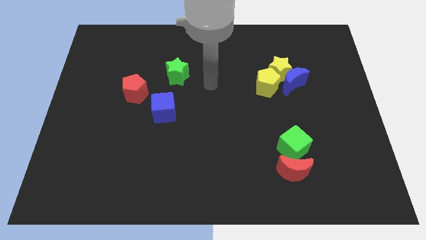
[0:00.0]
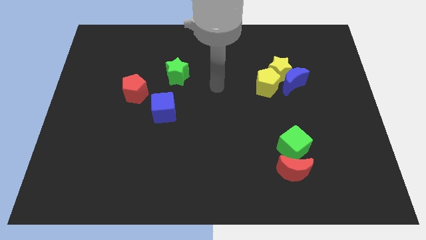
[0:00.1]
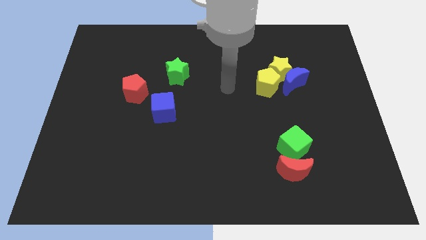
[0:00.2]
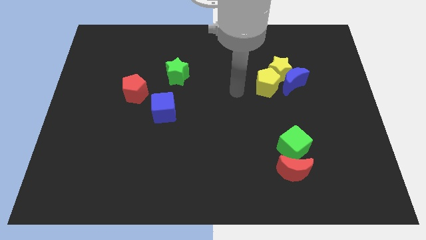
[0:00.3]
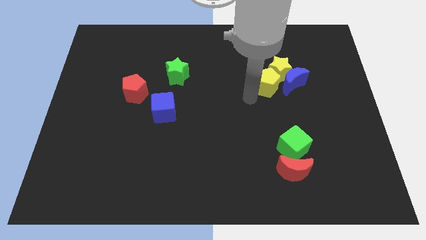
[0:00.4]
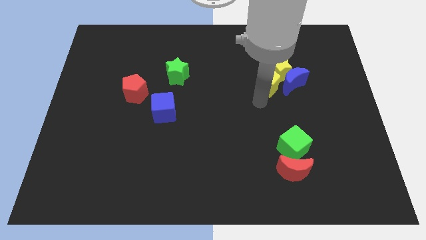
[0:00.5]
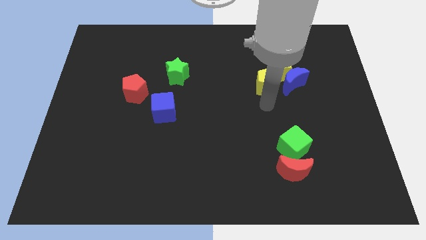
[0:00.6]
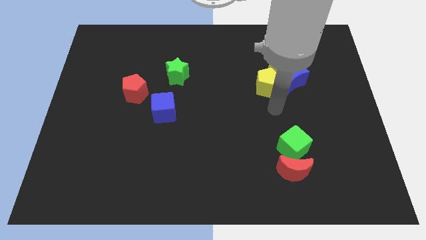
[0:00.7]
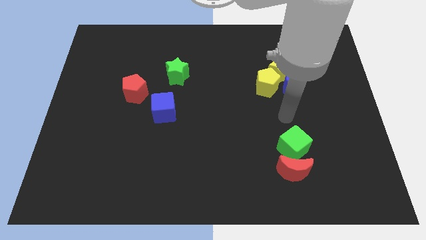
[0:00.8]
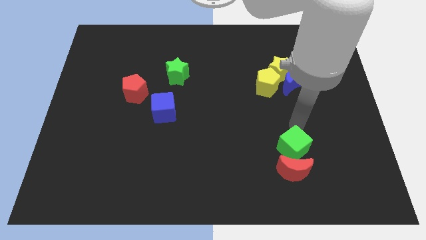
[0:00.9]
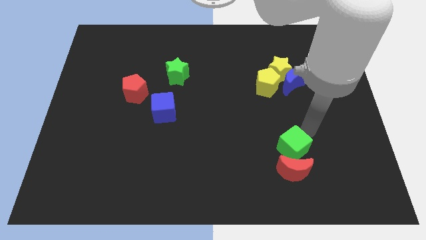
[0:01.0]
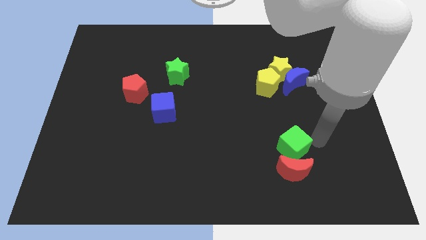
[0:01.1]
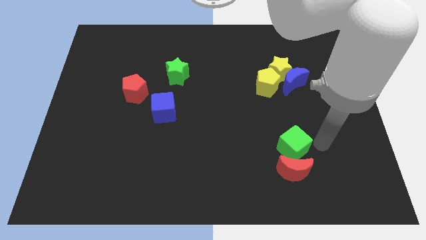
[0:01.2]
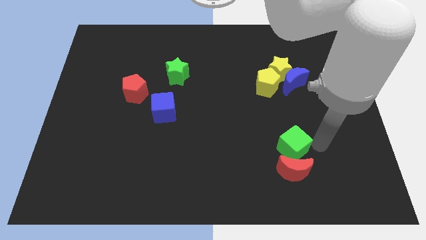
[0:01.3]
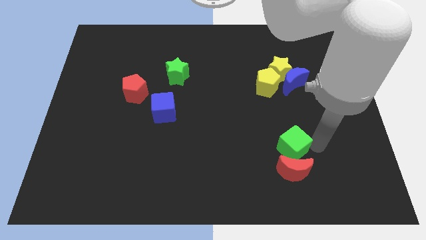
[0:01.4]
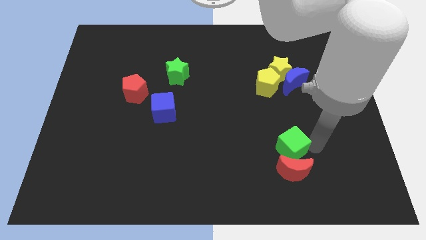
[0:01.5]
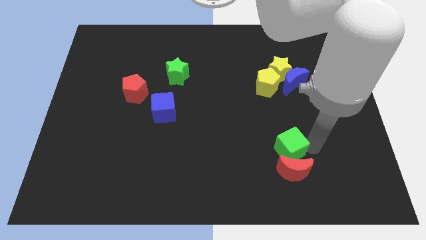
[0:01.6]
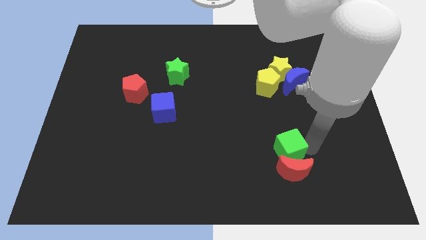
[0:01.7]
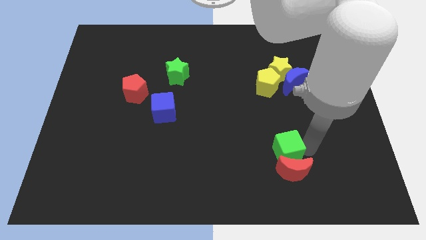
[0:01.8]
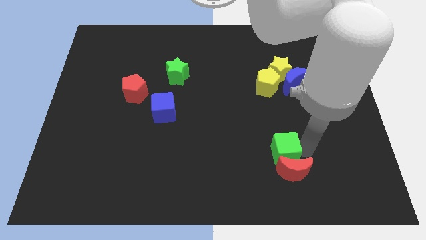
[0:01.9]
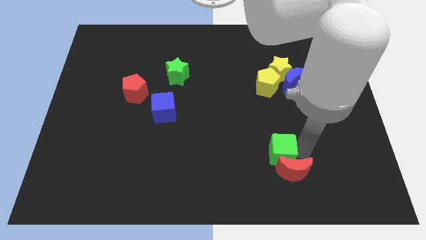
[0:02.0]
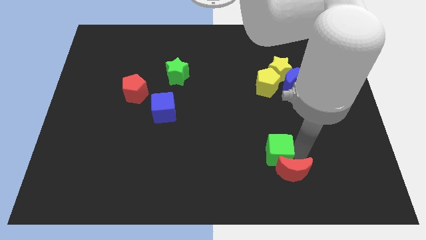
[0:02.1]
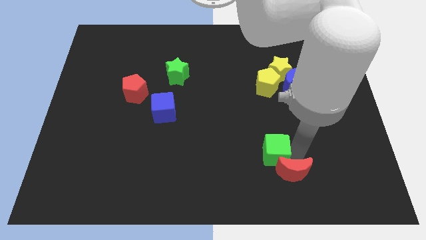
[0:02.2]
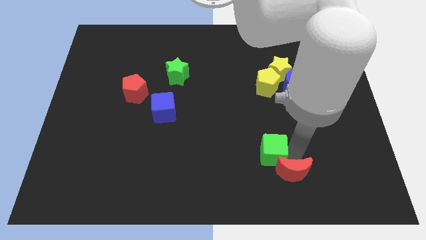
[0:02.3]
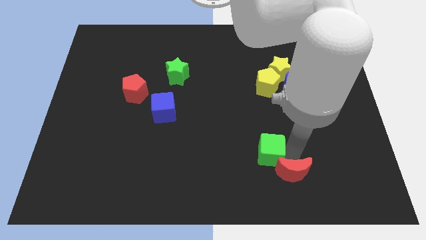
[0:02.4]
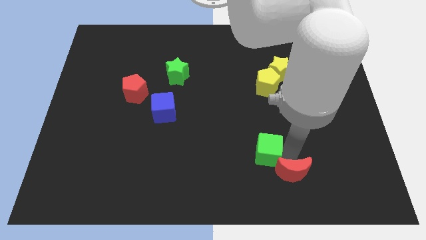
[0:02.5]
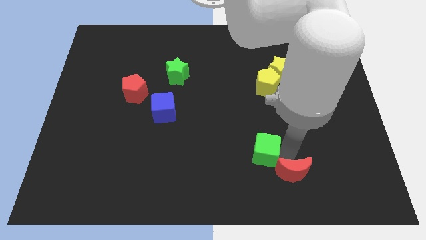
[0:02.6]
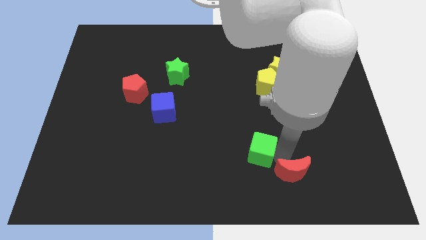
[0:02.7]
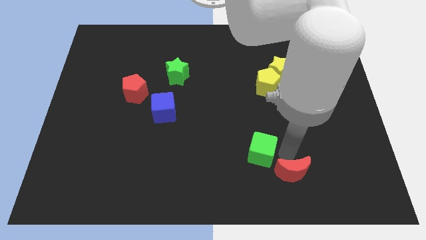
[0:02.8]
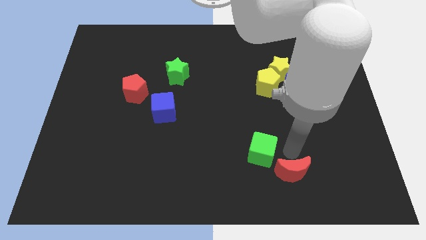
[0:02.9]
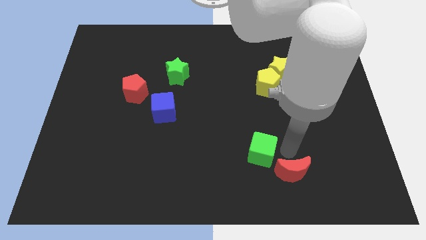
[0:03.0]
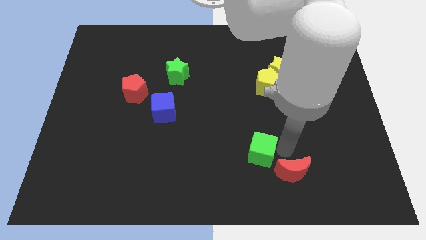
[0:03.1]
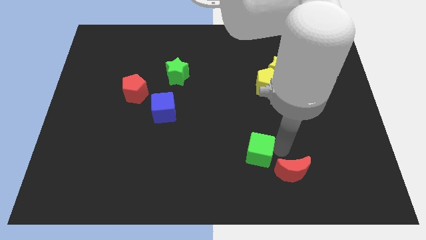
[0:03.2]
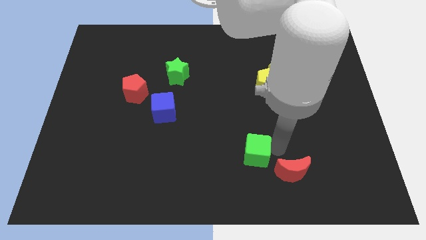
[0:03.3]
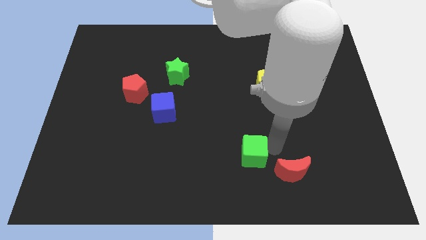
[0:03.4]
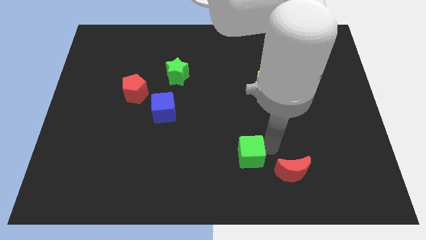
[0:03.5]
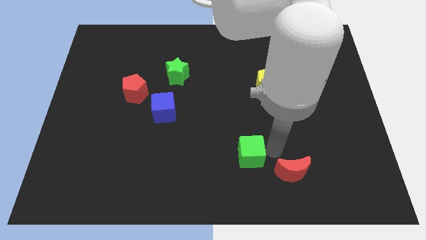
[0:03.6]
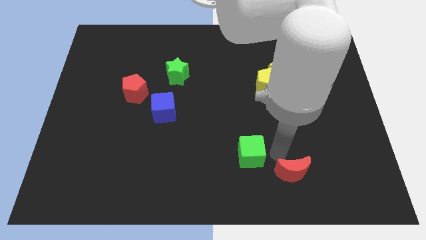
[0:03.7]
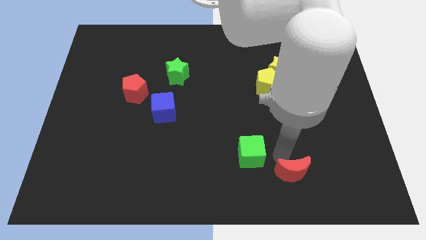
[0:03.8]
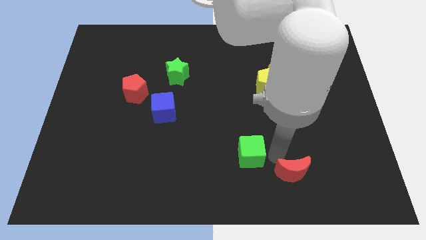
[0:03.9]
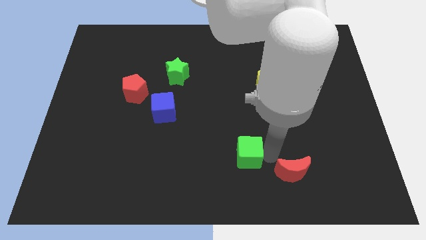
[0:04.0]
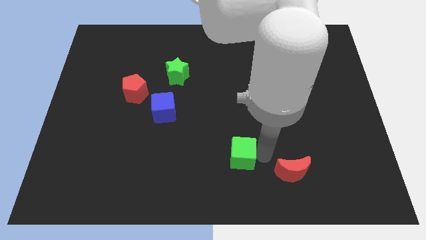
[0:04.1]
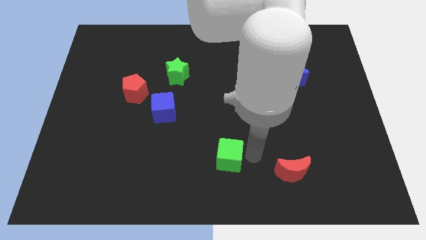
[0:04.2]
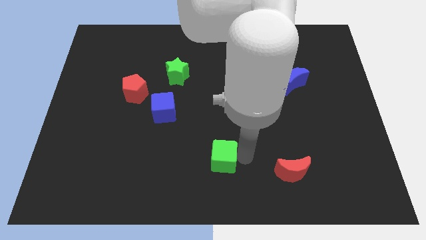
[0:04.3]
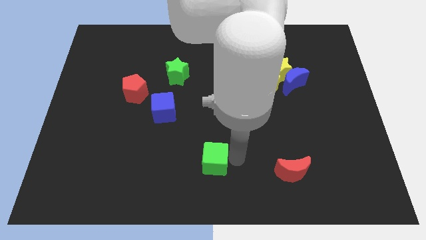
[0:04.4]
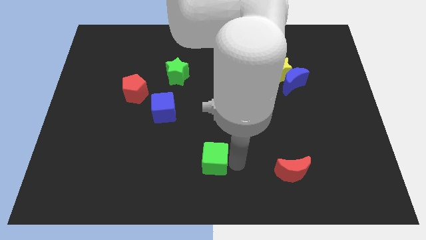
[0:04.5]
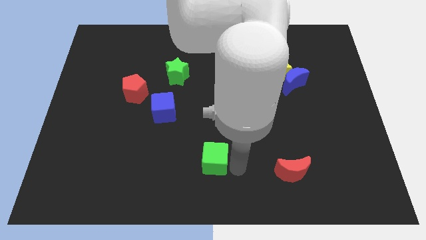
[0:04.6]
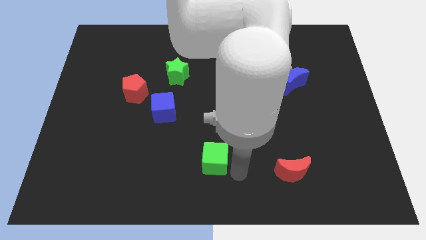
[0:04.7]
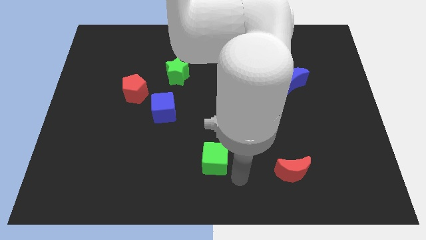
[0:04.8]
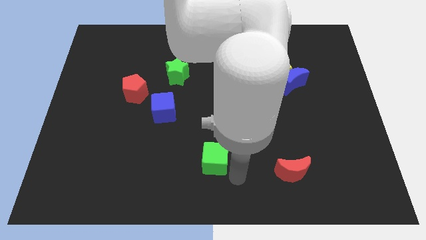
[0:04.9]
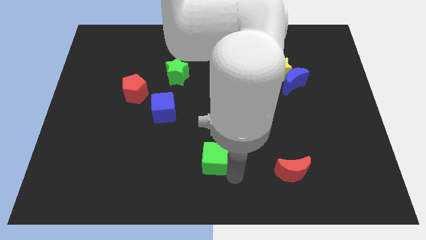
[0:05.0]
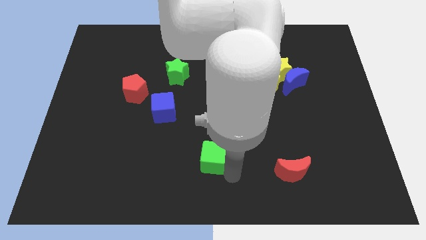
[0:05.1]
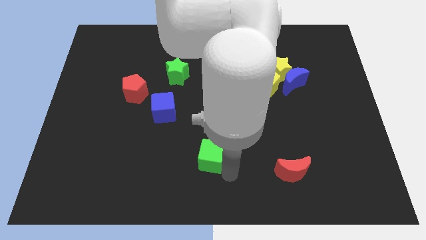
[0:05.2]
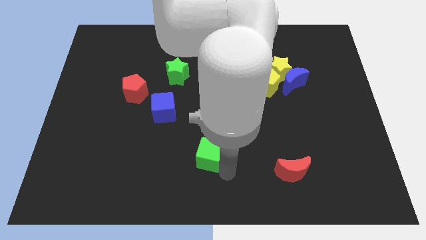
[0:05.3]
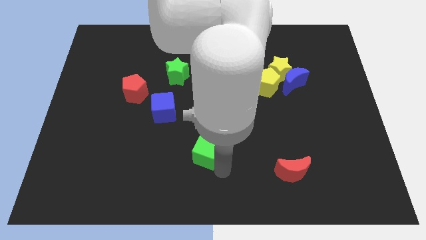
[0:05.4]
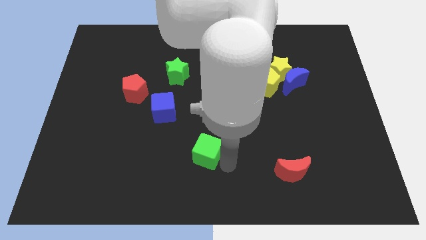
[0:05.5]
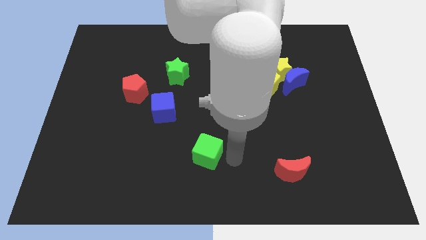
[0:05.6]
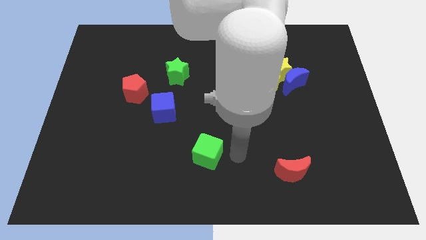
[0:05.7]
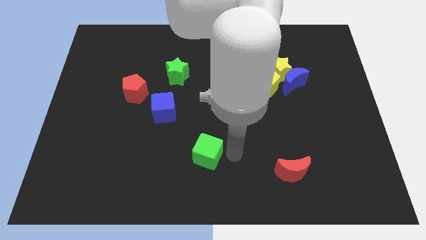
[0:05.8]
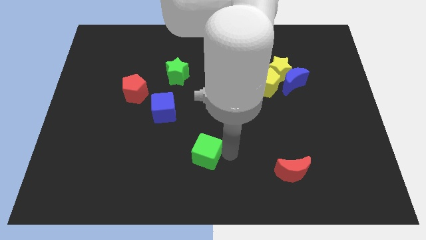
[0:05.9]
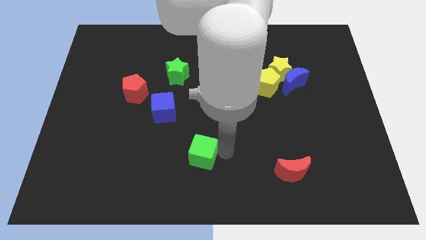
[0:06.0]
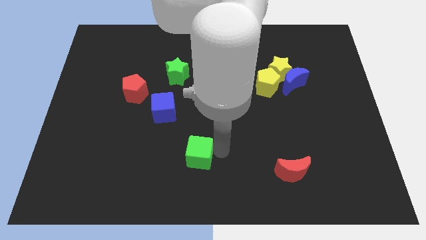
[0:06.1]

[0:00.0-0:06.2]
slide the green cube left

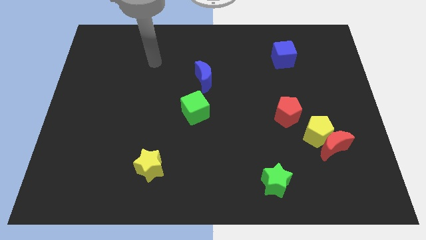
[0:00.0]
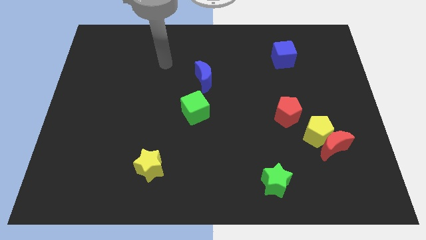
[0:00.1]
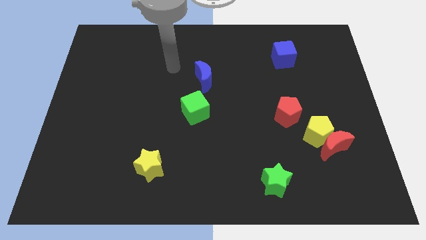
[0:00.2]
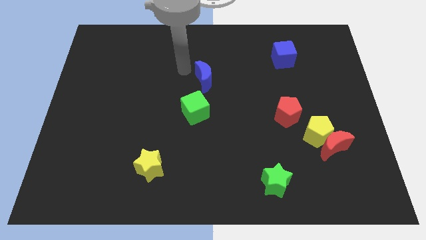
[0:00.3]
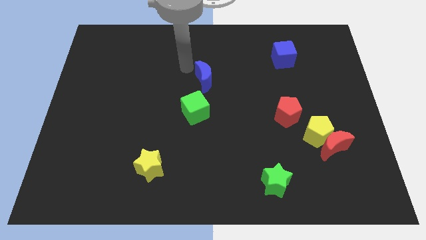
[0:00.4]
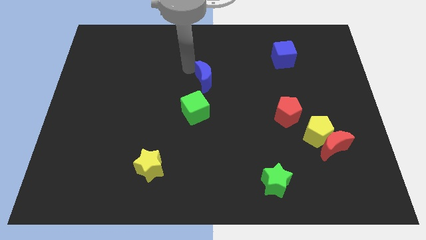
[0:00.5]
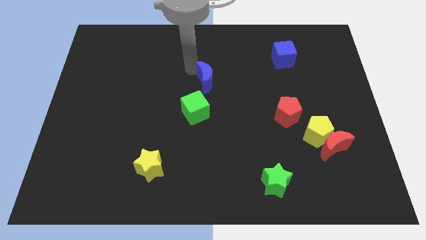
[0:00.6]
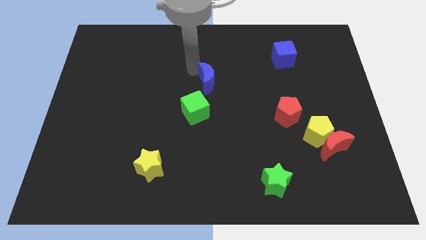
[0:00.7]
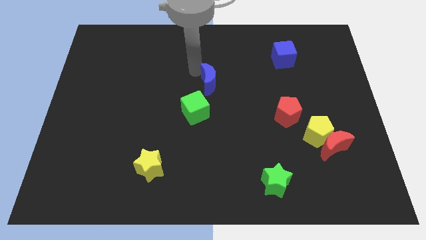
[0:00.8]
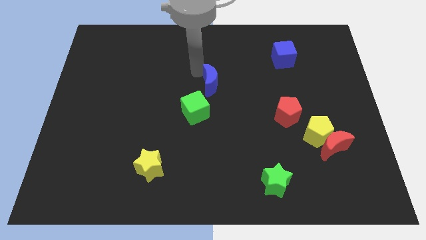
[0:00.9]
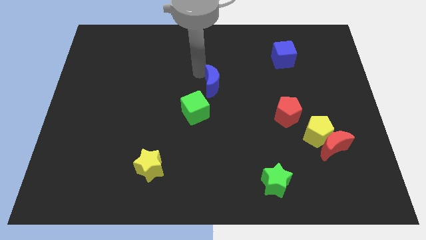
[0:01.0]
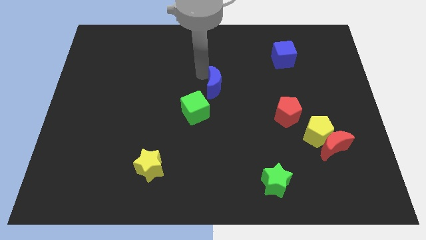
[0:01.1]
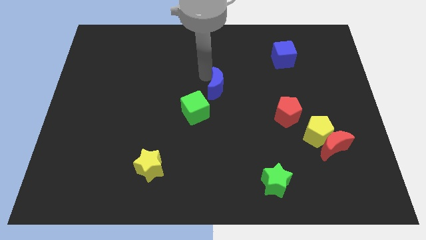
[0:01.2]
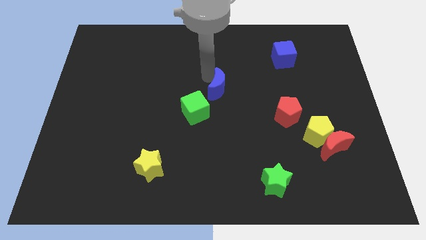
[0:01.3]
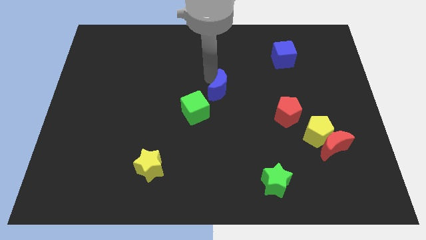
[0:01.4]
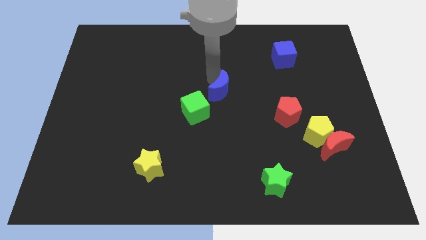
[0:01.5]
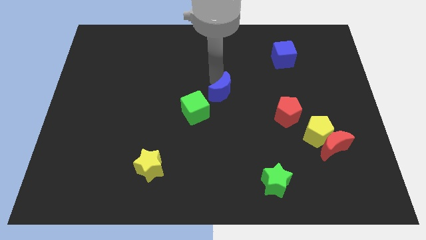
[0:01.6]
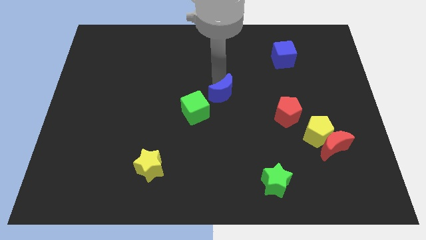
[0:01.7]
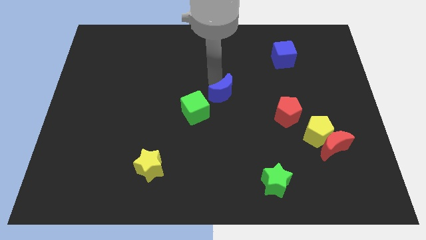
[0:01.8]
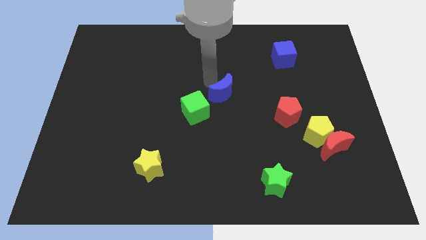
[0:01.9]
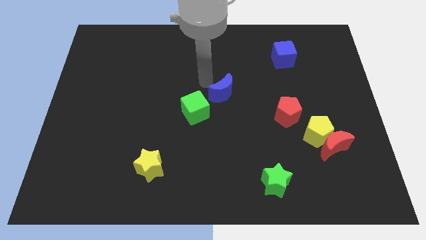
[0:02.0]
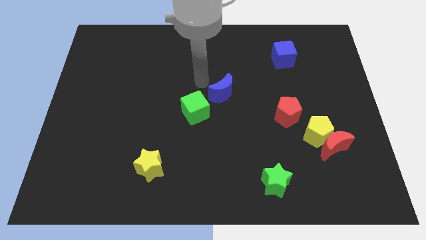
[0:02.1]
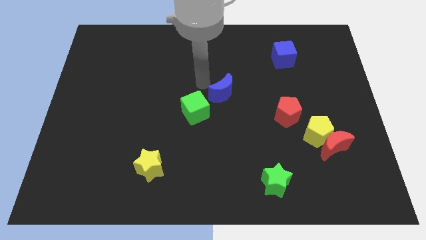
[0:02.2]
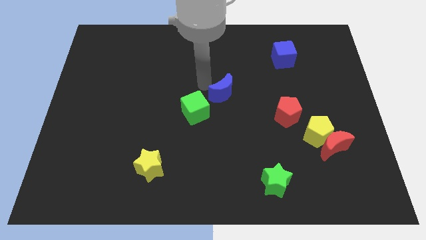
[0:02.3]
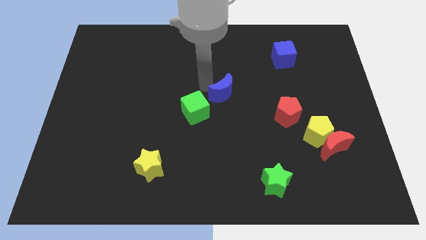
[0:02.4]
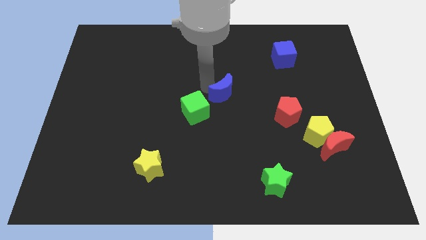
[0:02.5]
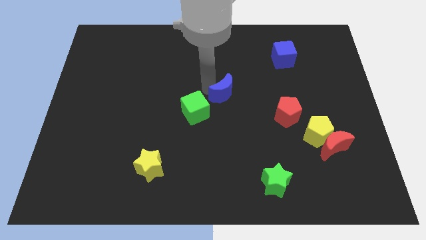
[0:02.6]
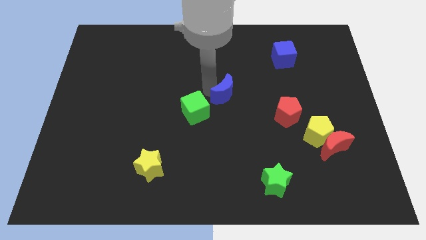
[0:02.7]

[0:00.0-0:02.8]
slightly move the blue moon downwards and right
